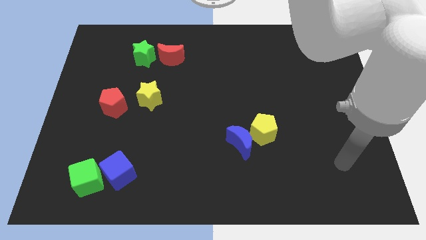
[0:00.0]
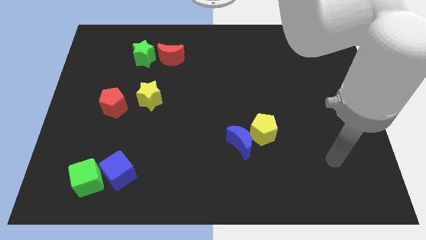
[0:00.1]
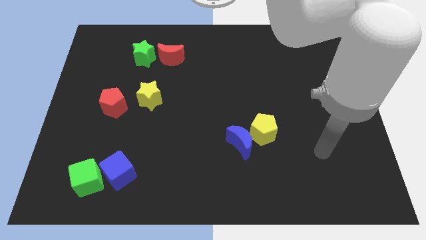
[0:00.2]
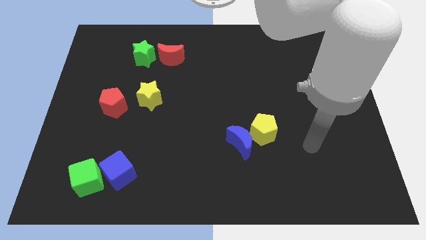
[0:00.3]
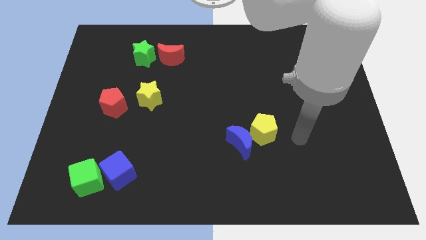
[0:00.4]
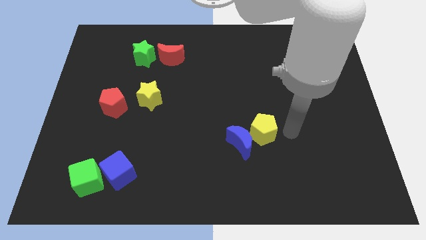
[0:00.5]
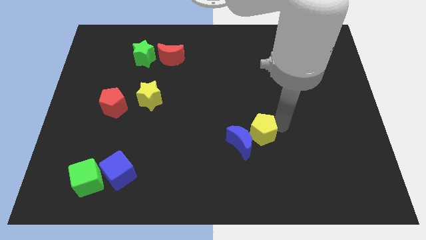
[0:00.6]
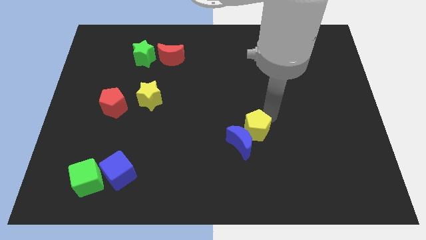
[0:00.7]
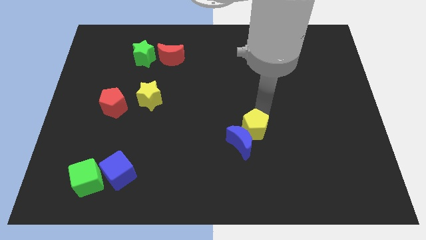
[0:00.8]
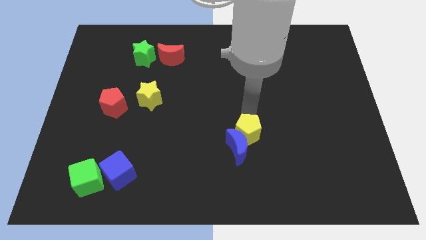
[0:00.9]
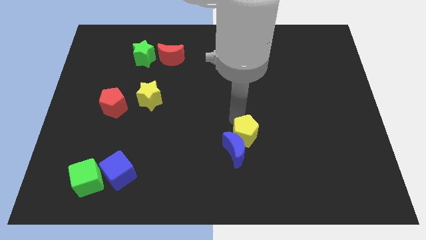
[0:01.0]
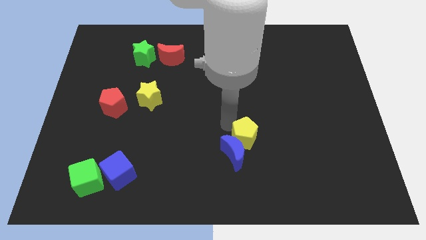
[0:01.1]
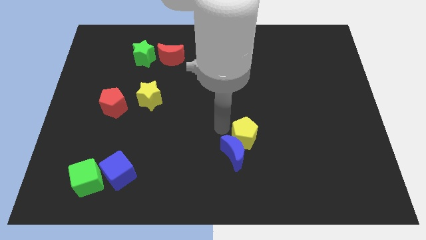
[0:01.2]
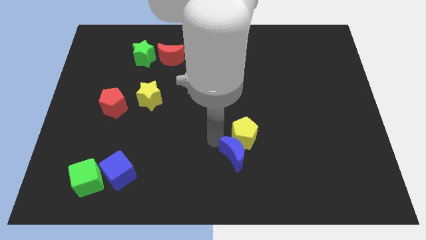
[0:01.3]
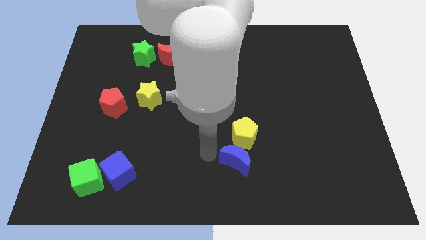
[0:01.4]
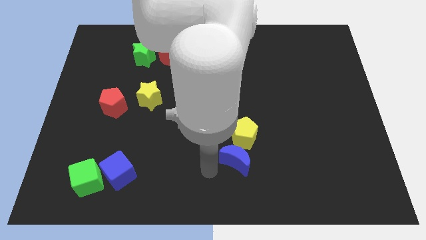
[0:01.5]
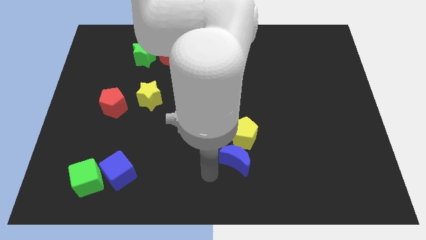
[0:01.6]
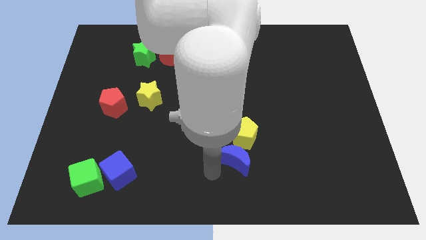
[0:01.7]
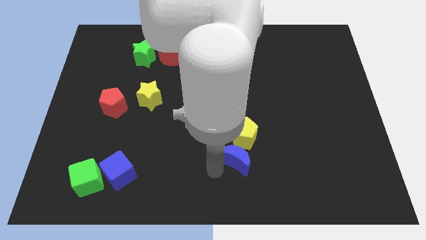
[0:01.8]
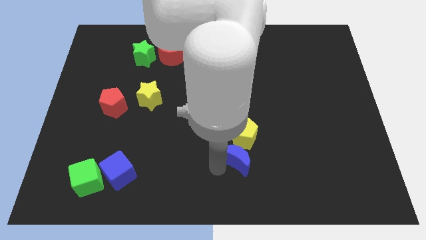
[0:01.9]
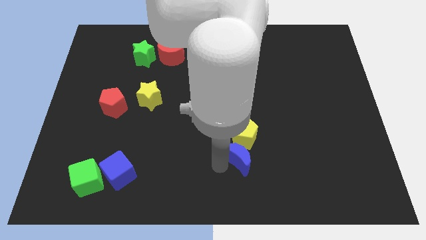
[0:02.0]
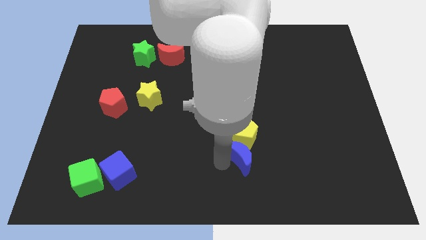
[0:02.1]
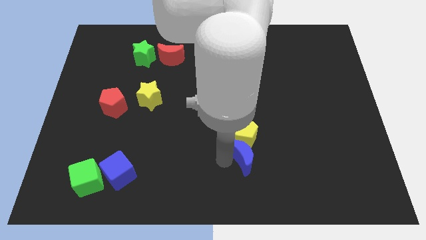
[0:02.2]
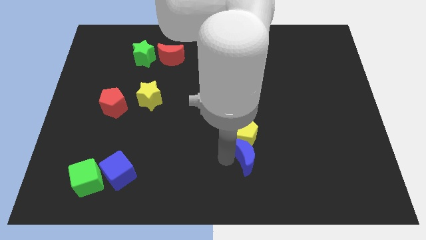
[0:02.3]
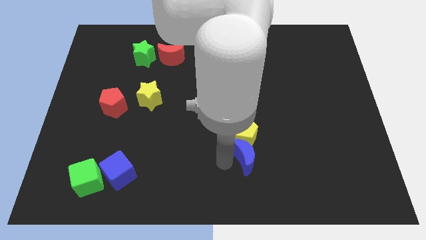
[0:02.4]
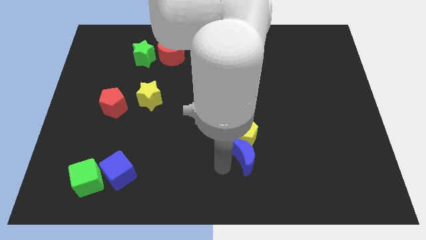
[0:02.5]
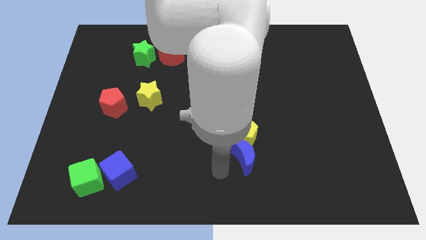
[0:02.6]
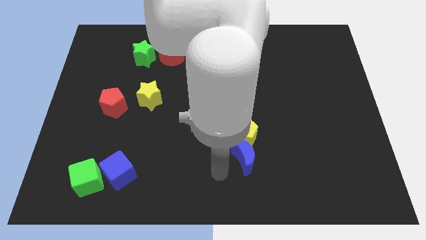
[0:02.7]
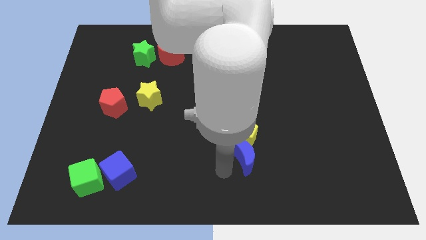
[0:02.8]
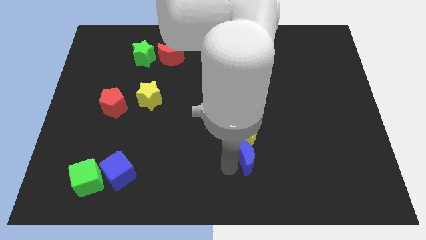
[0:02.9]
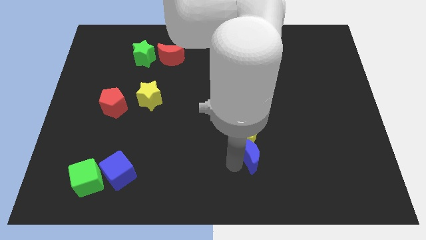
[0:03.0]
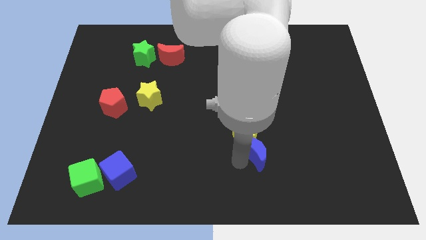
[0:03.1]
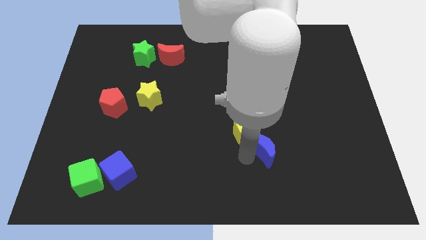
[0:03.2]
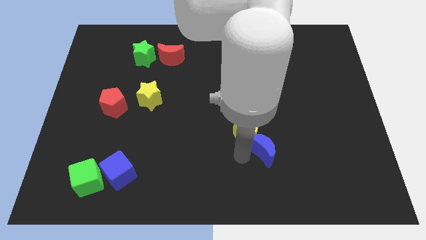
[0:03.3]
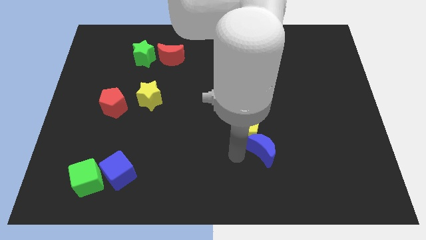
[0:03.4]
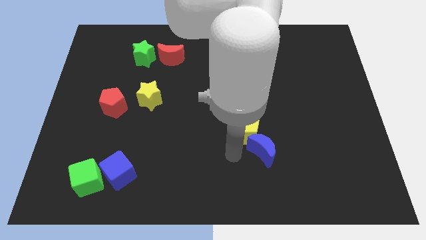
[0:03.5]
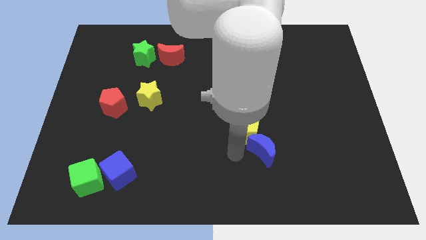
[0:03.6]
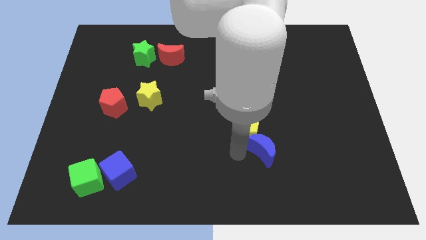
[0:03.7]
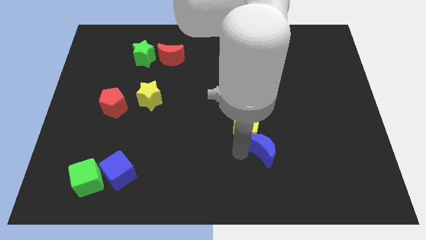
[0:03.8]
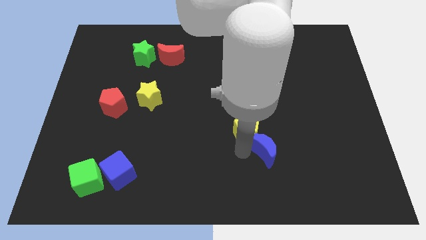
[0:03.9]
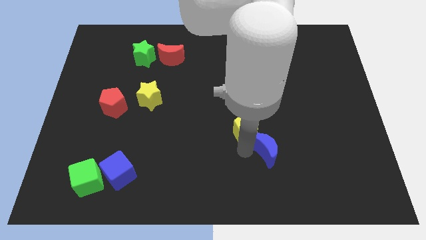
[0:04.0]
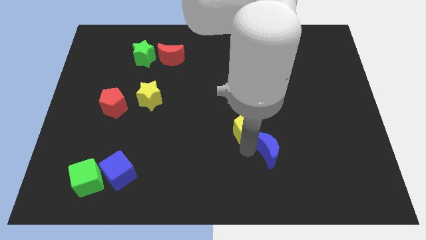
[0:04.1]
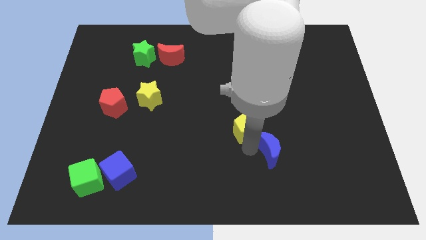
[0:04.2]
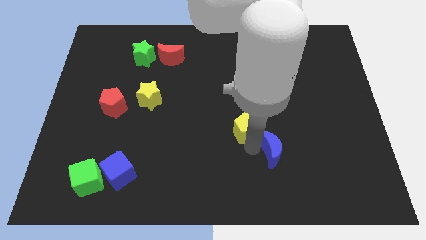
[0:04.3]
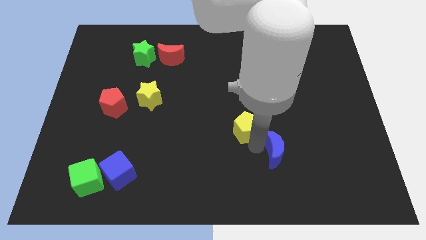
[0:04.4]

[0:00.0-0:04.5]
push the blue moon a little to the right

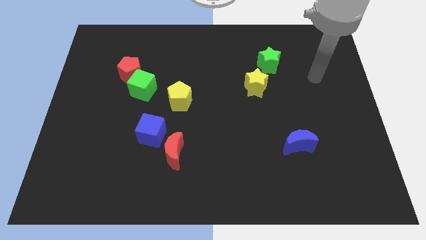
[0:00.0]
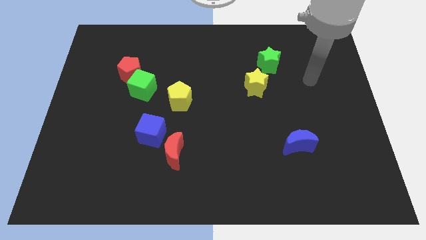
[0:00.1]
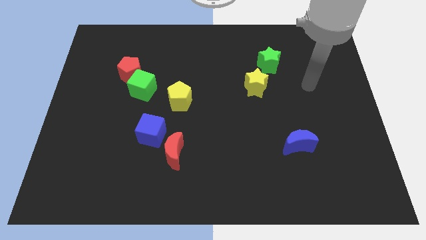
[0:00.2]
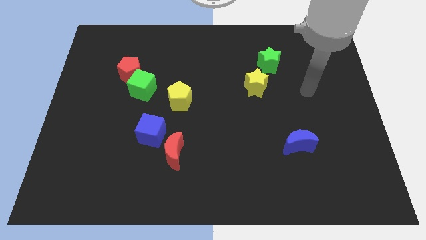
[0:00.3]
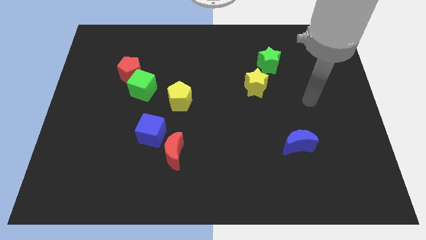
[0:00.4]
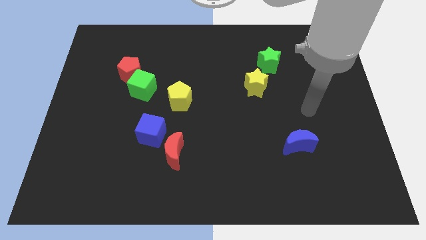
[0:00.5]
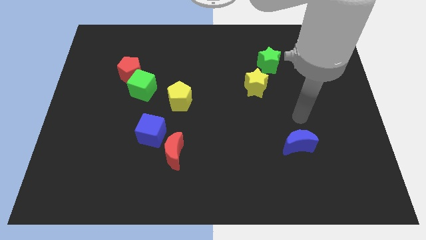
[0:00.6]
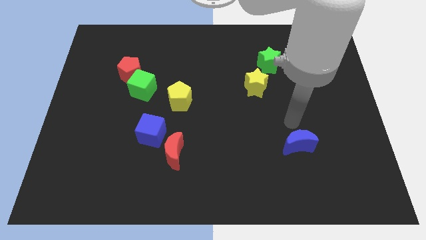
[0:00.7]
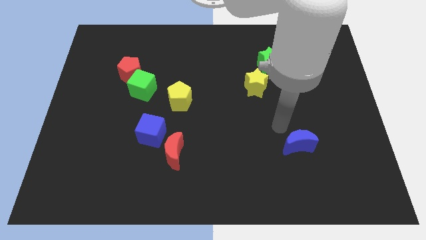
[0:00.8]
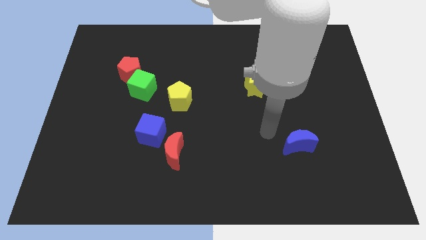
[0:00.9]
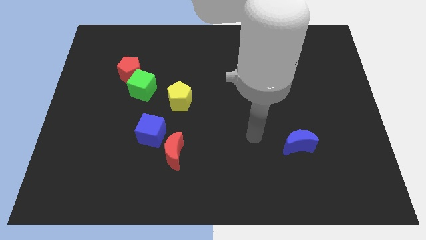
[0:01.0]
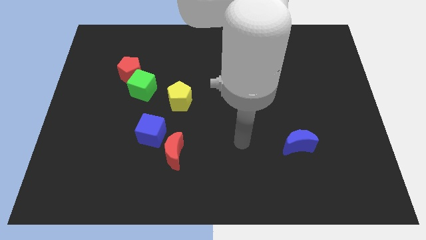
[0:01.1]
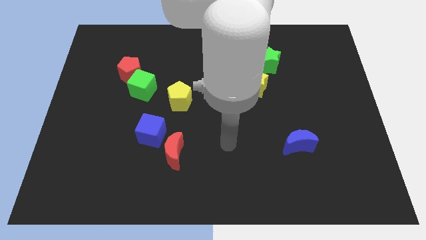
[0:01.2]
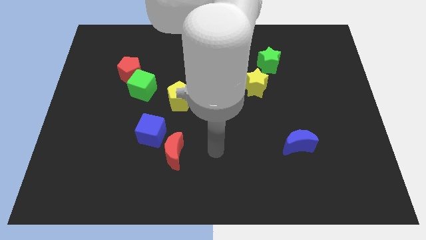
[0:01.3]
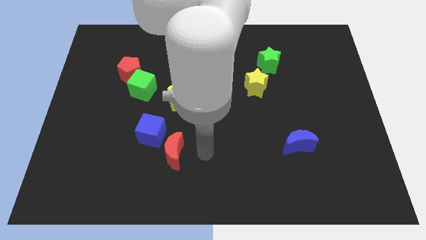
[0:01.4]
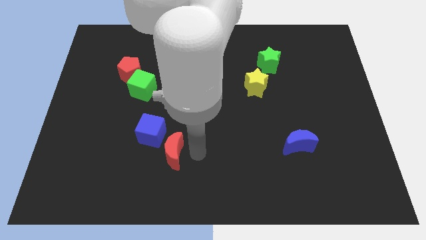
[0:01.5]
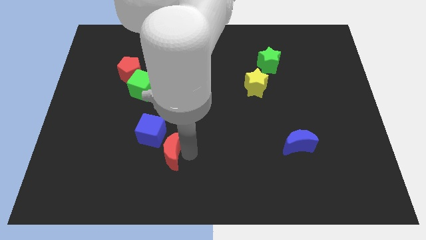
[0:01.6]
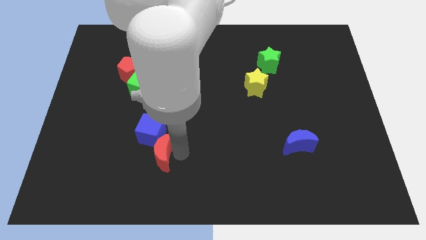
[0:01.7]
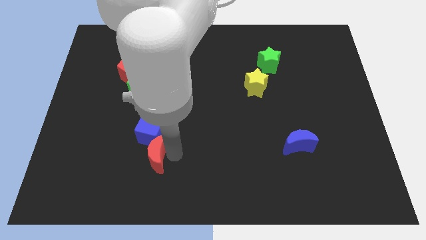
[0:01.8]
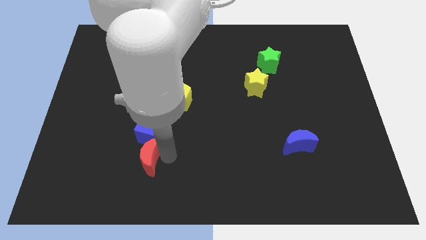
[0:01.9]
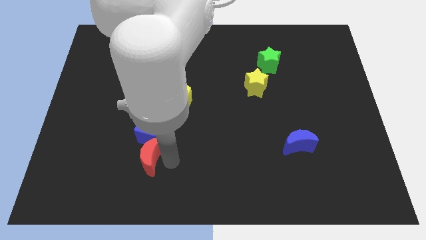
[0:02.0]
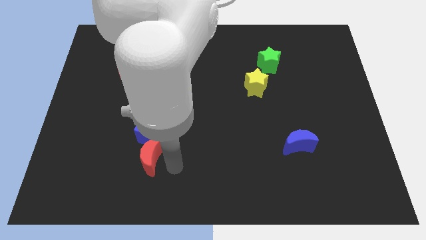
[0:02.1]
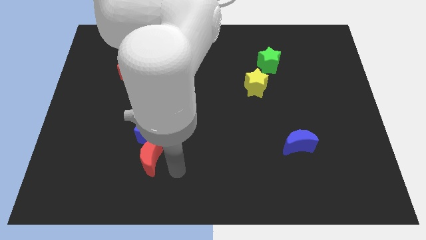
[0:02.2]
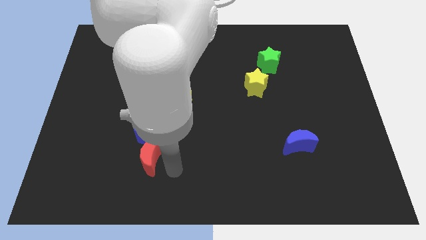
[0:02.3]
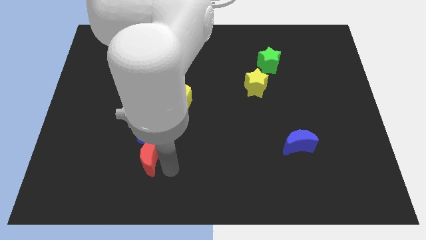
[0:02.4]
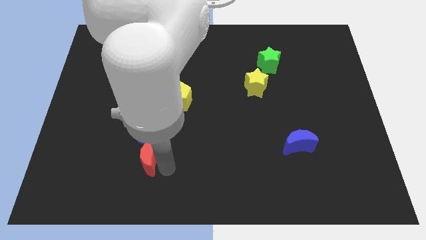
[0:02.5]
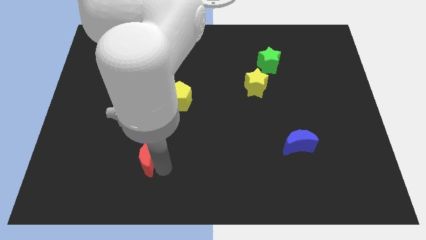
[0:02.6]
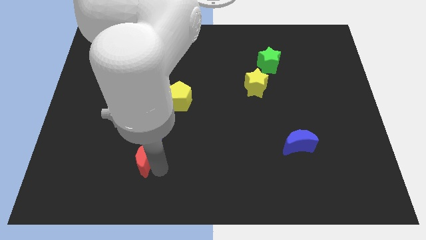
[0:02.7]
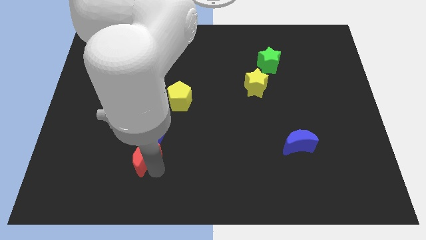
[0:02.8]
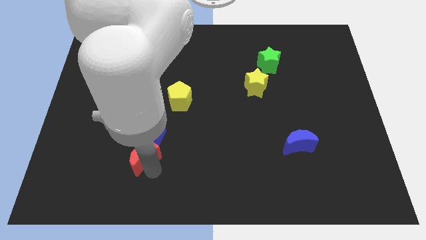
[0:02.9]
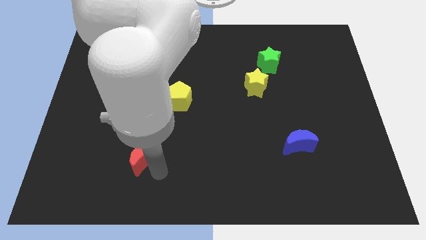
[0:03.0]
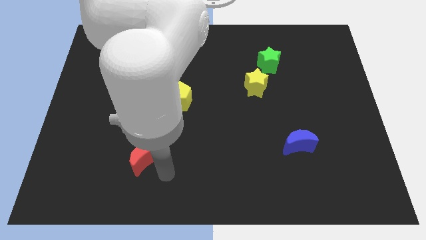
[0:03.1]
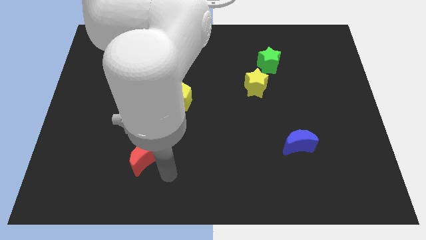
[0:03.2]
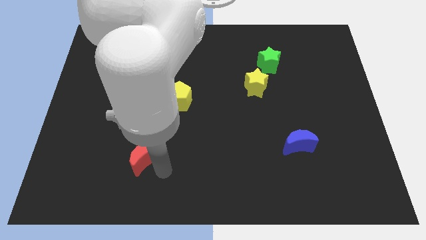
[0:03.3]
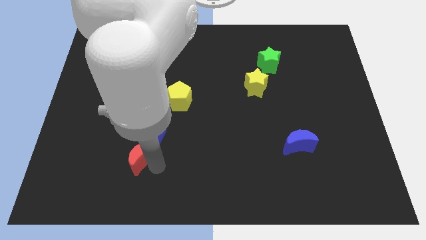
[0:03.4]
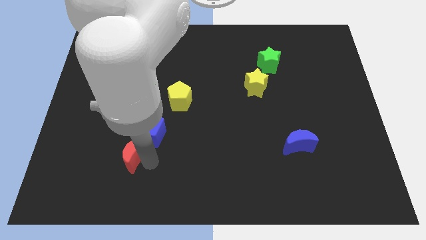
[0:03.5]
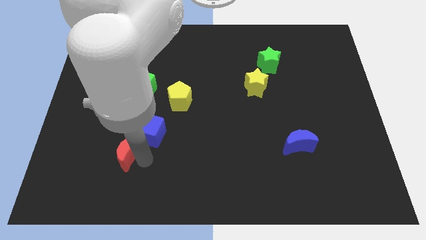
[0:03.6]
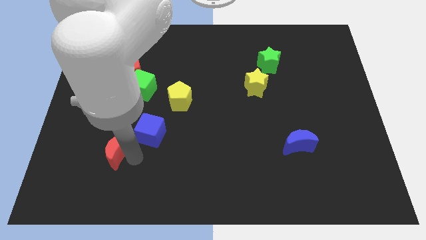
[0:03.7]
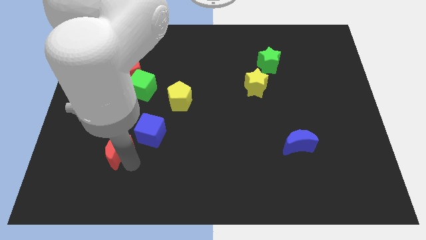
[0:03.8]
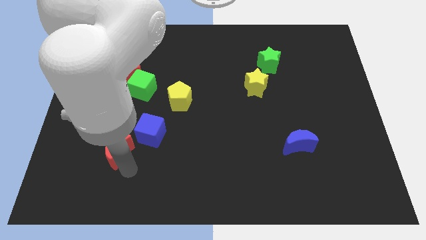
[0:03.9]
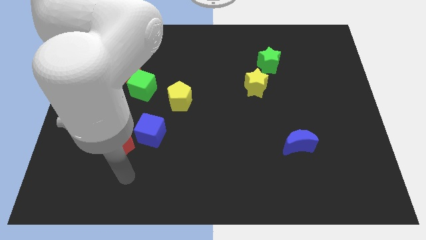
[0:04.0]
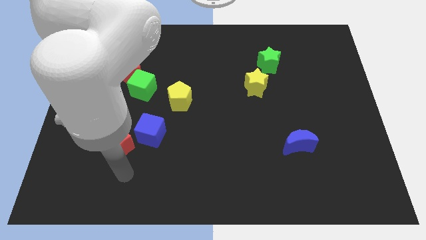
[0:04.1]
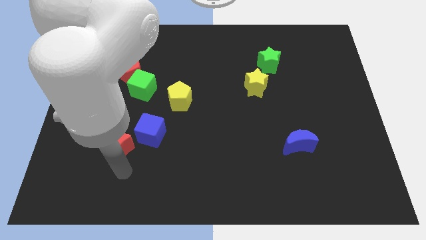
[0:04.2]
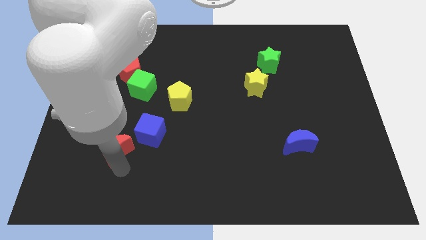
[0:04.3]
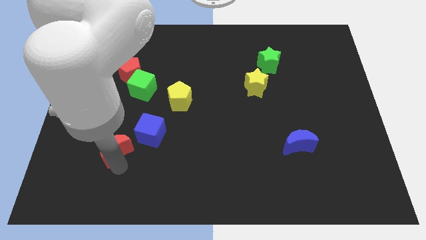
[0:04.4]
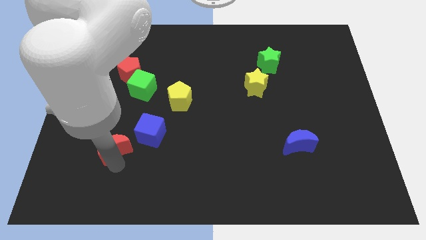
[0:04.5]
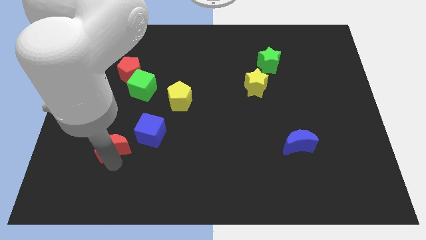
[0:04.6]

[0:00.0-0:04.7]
move the red moon up and to the left somewhat
